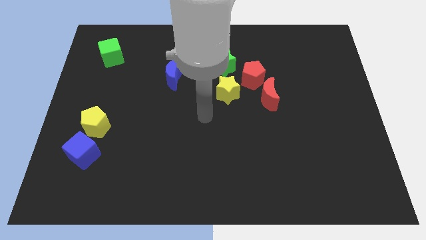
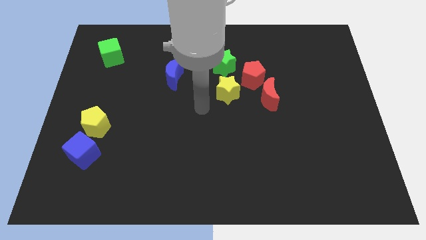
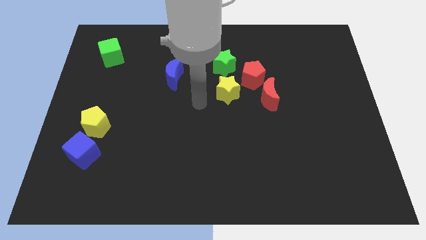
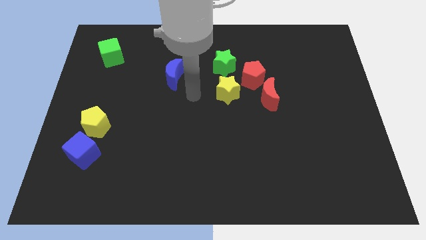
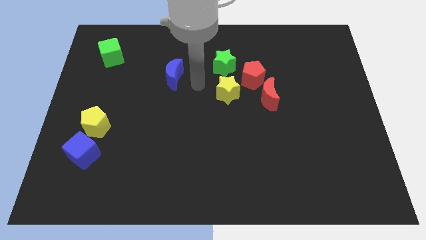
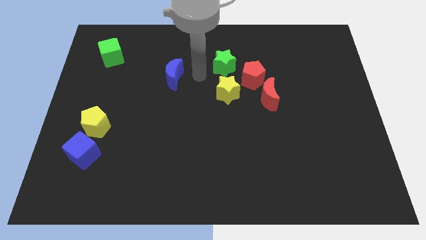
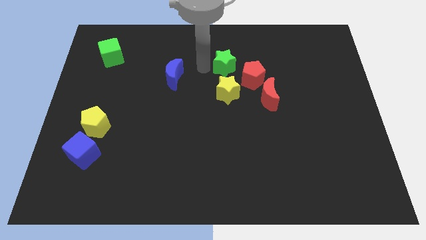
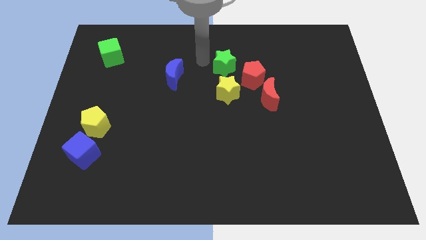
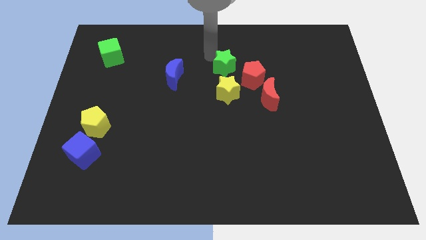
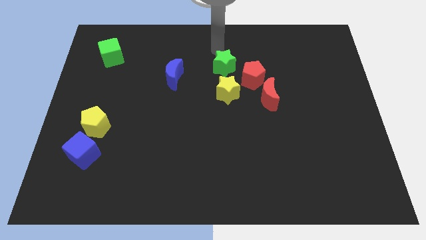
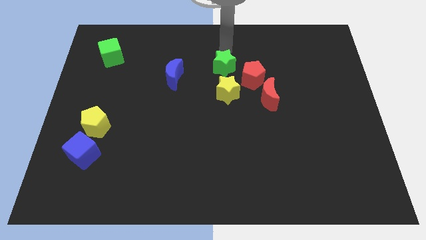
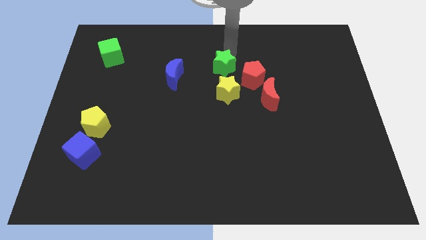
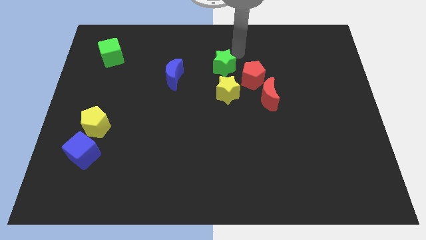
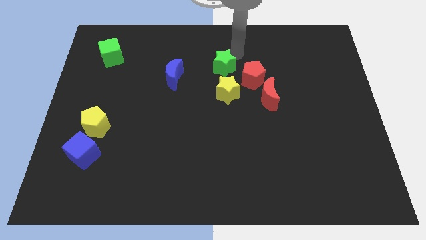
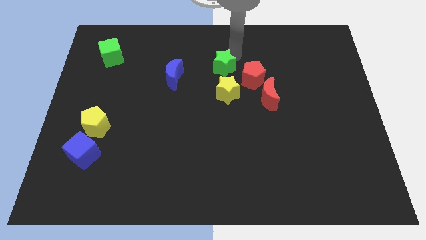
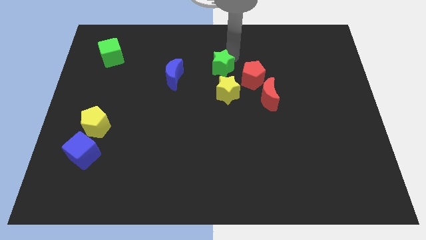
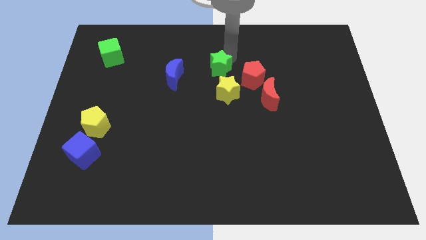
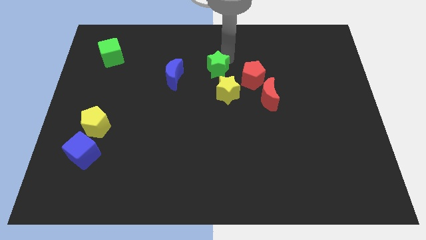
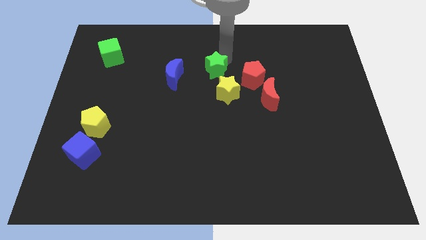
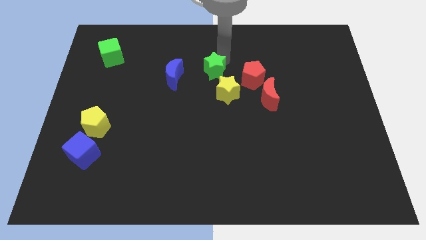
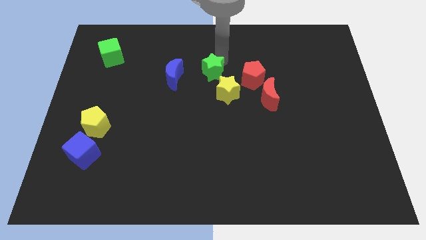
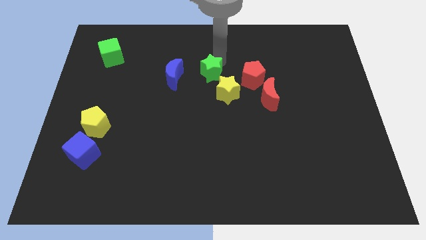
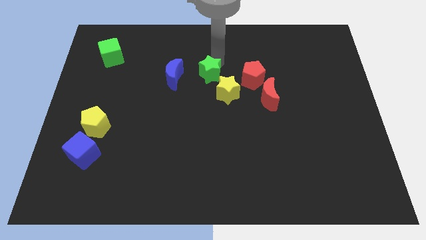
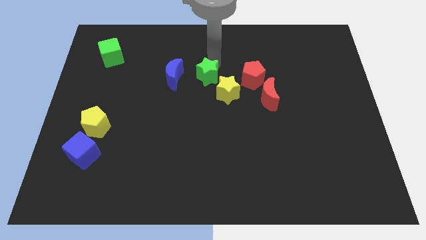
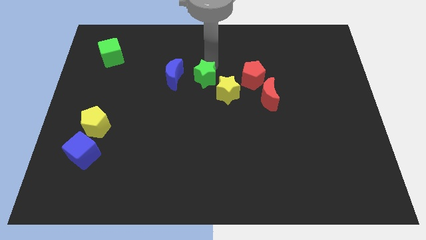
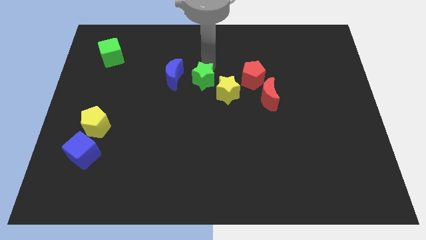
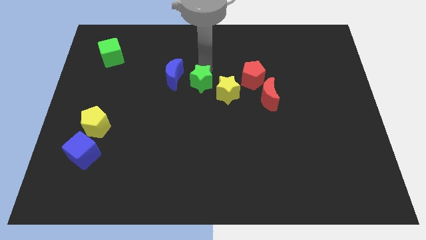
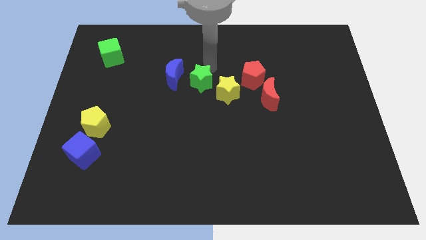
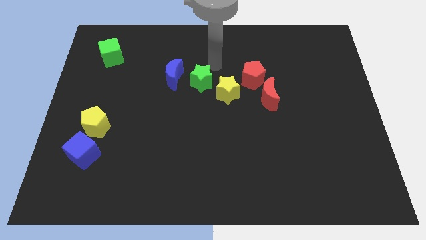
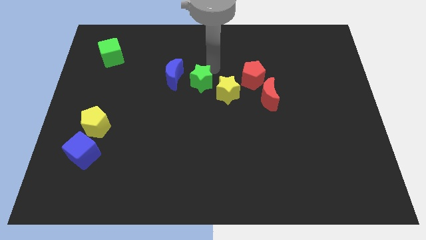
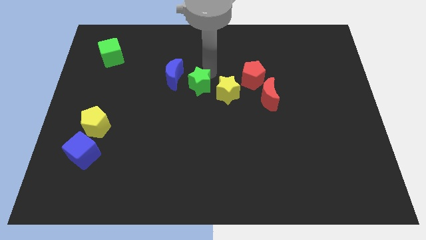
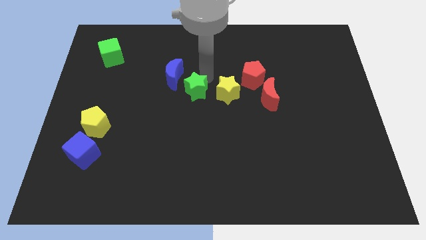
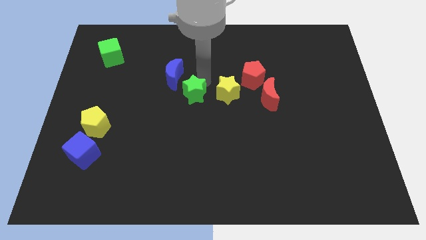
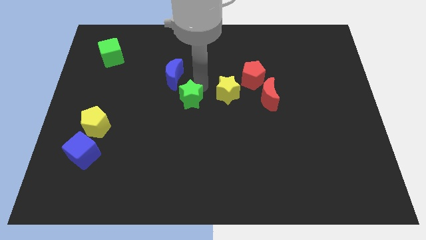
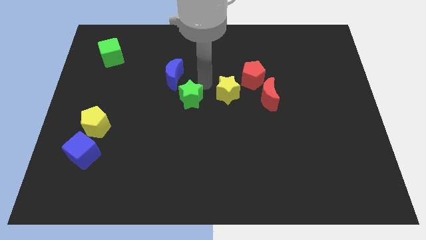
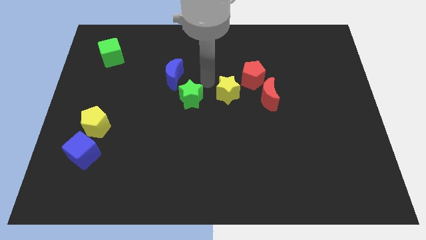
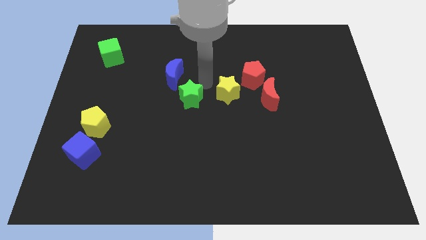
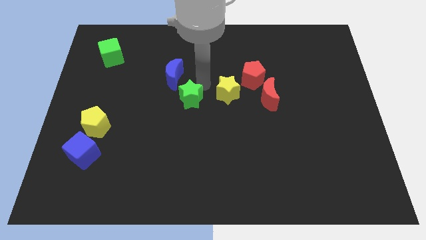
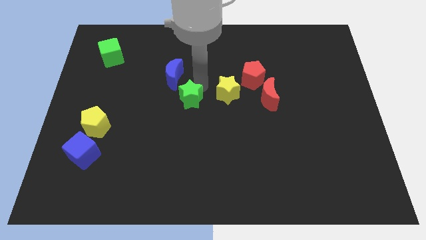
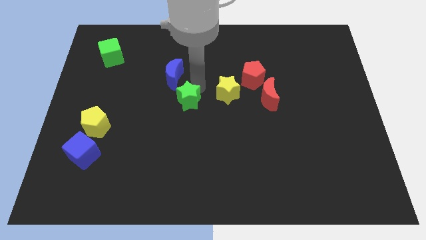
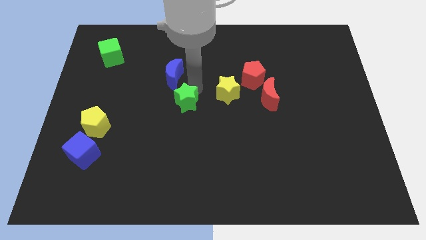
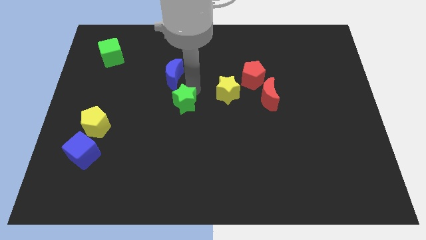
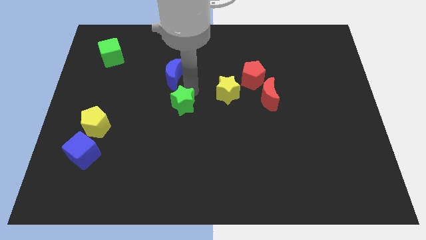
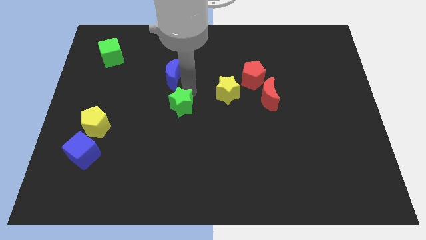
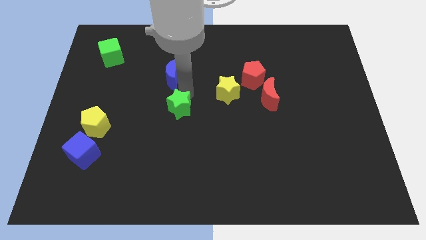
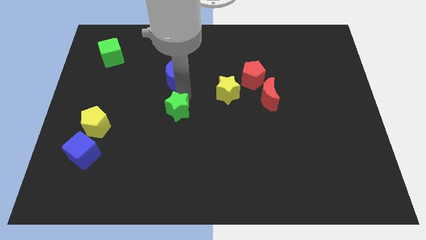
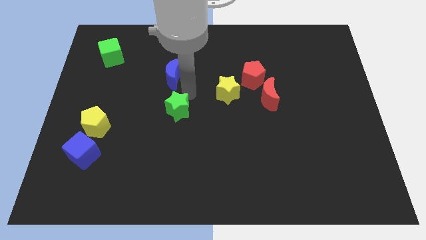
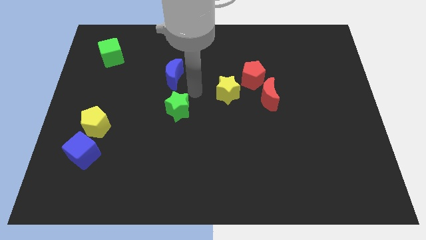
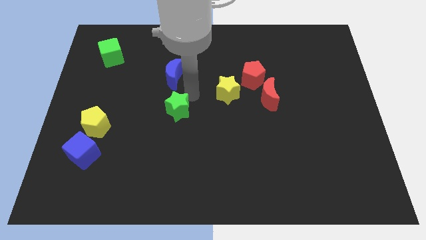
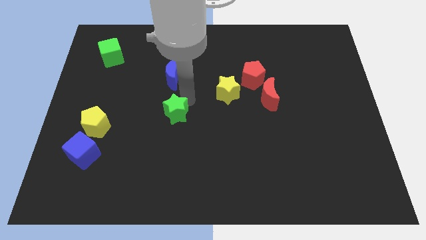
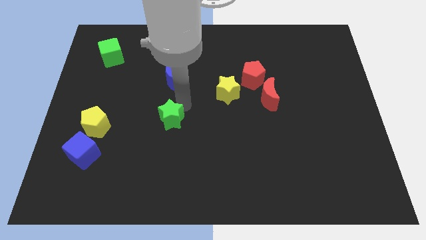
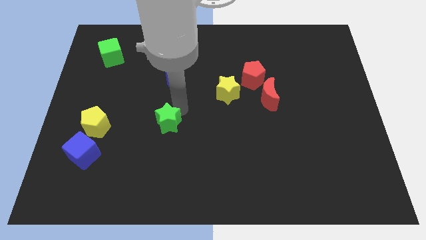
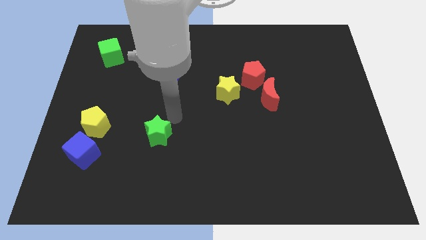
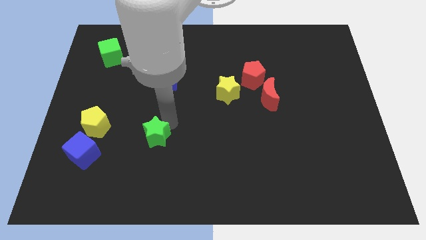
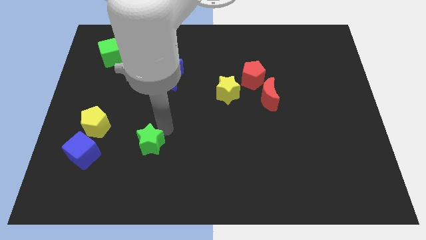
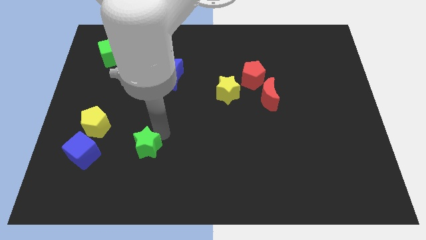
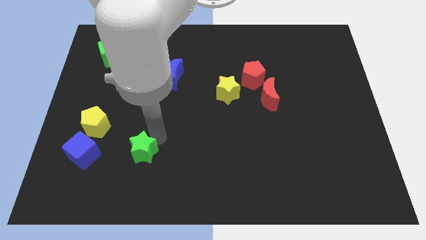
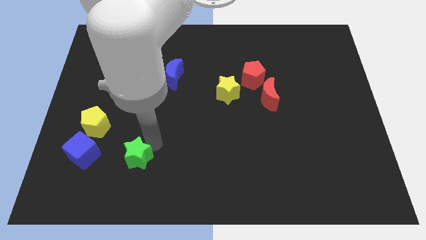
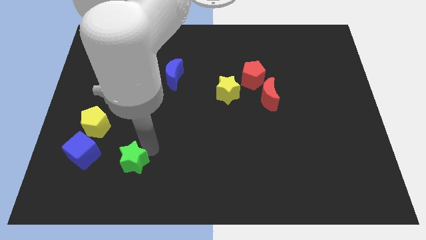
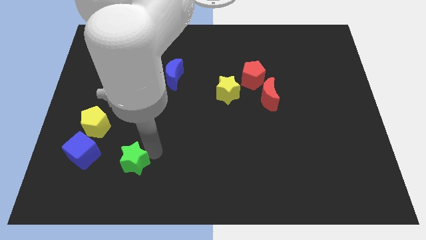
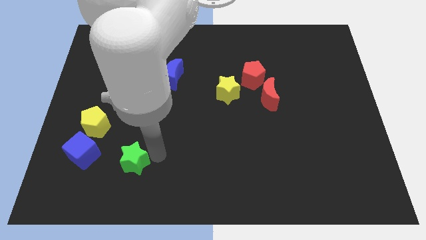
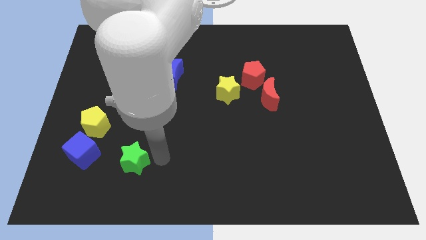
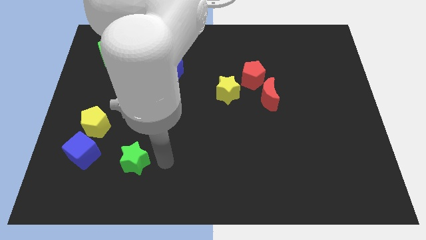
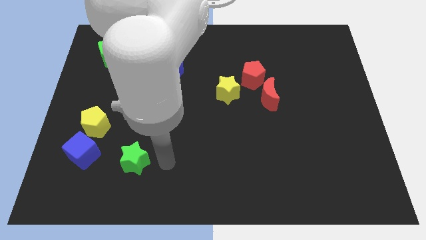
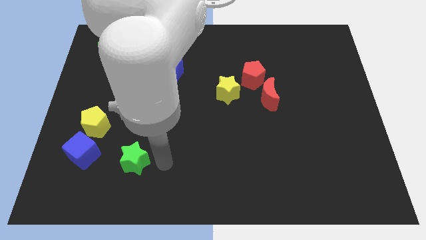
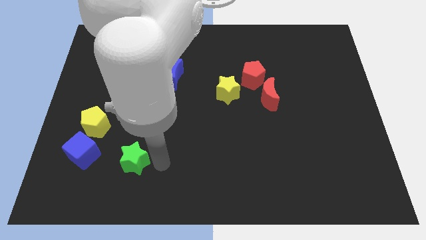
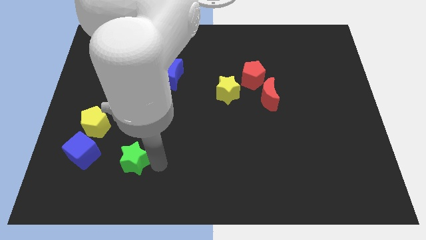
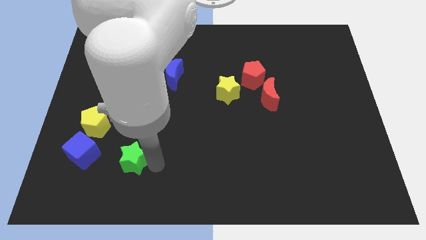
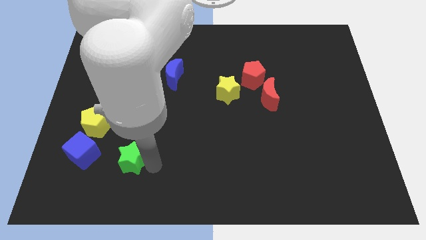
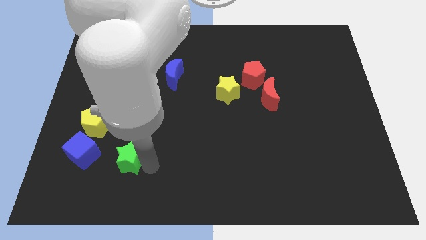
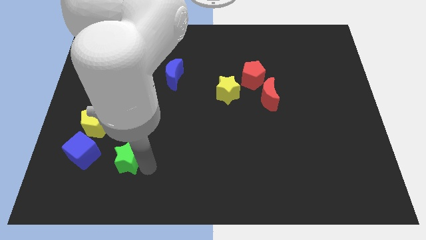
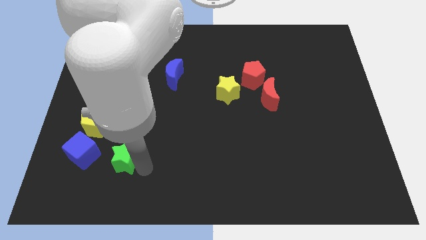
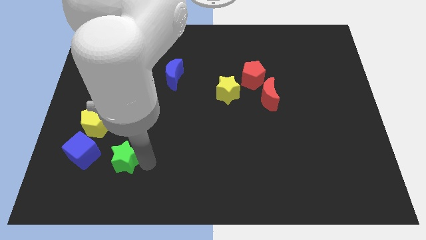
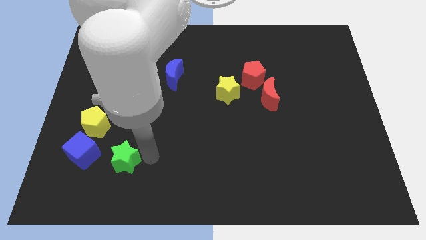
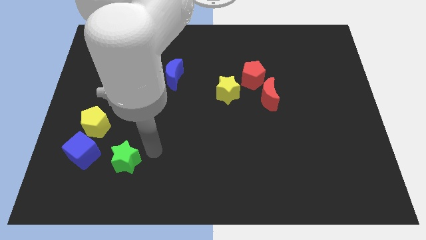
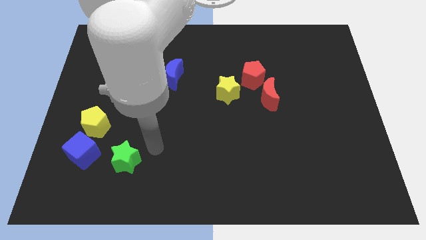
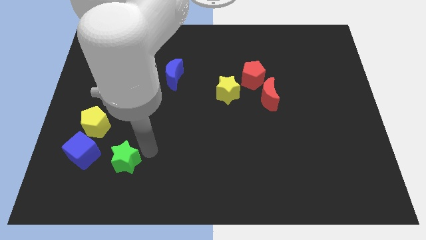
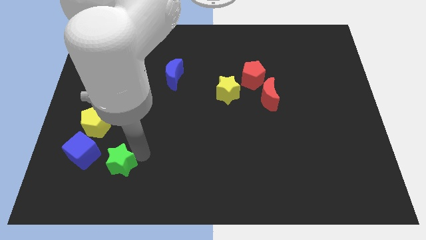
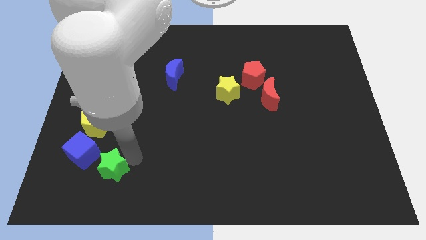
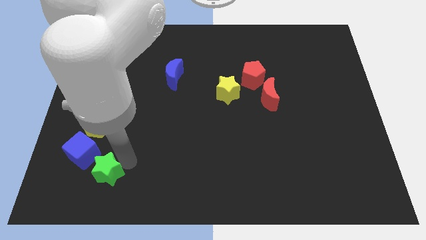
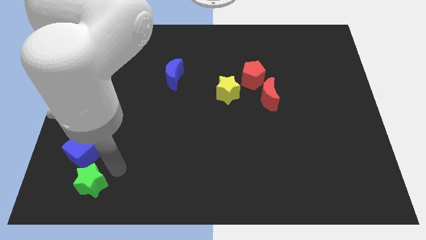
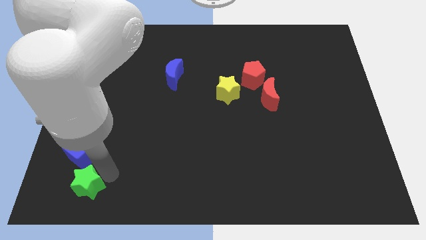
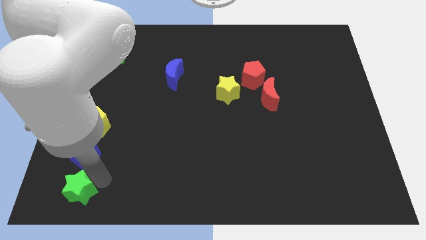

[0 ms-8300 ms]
push the green star to the lower left corner
